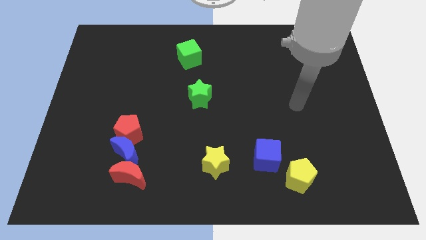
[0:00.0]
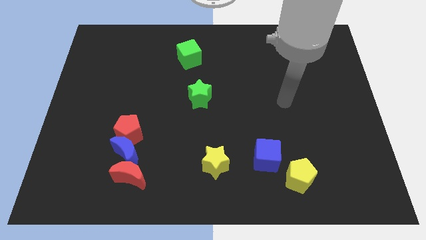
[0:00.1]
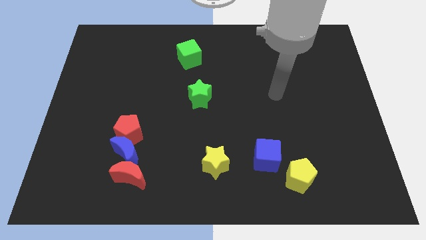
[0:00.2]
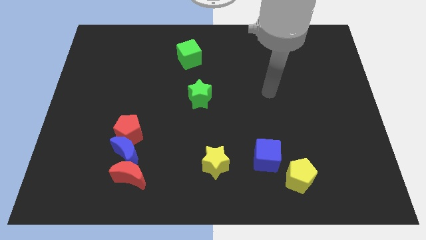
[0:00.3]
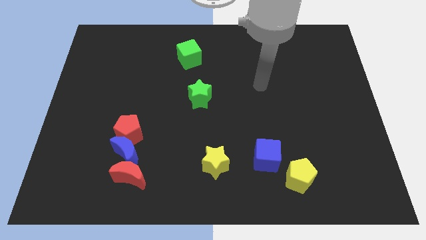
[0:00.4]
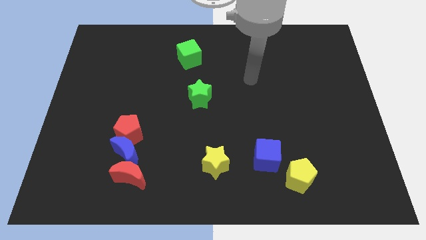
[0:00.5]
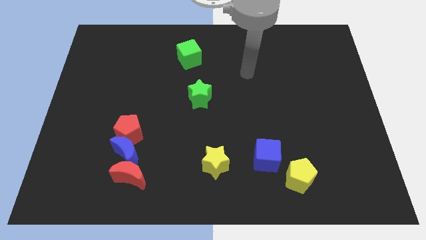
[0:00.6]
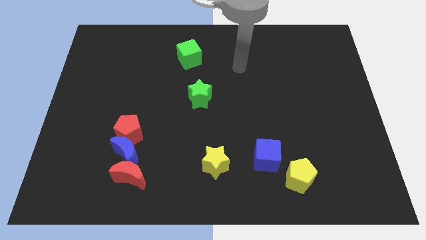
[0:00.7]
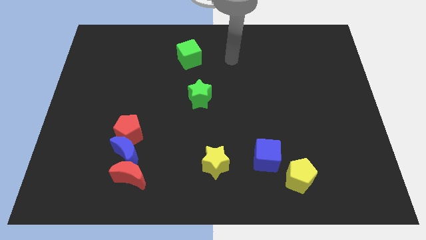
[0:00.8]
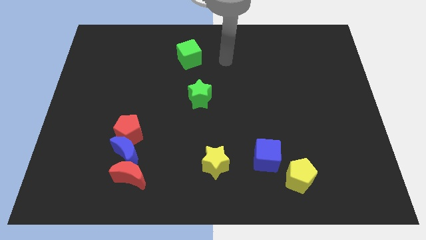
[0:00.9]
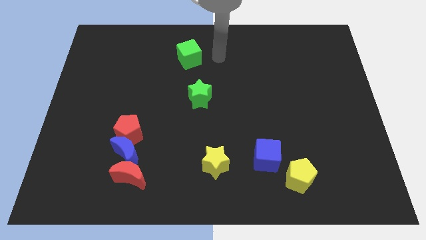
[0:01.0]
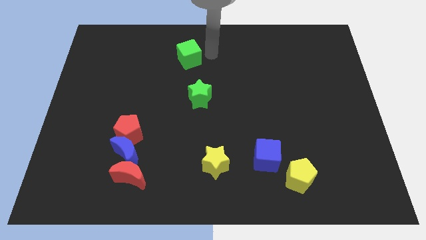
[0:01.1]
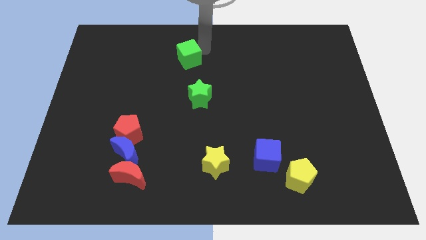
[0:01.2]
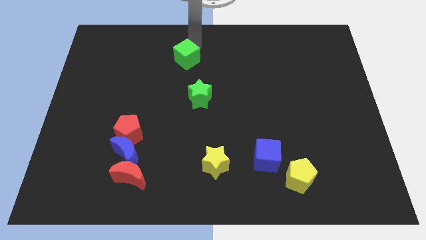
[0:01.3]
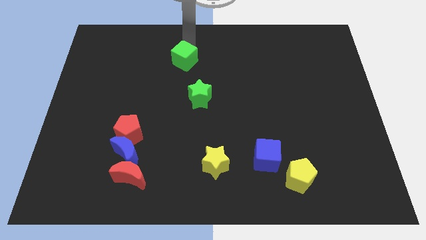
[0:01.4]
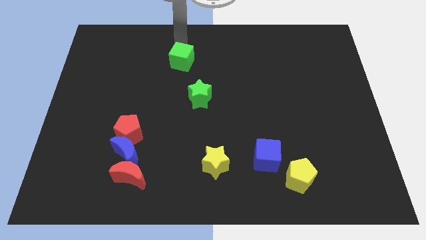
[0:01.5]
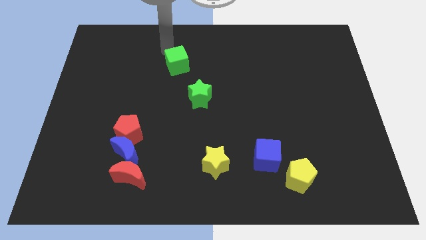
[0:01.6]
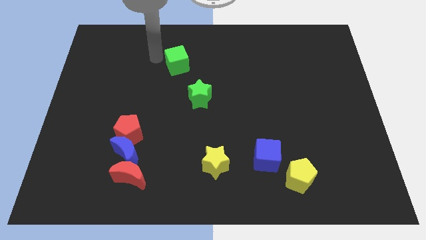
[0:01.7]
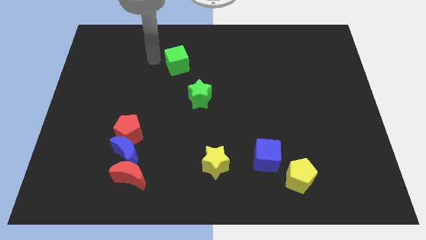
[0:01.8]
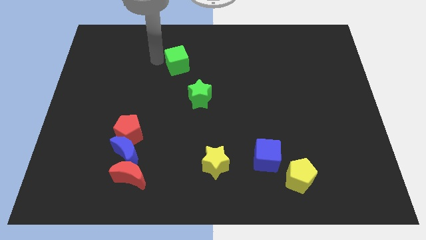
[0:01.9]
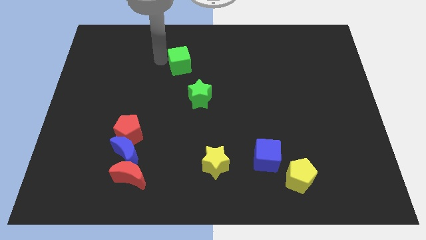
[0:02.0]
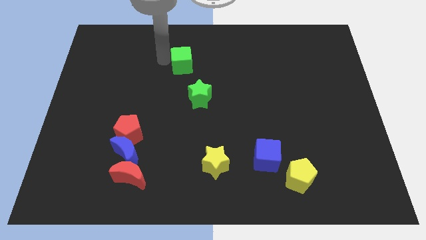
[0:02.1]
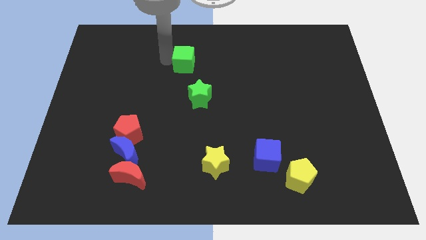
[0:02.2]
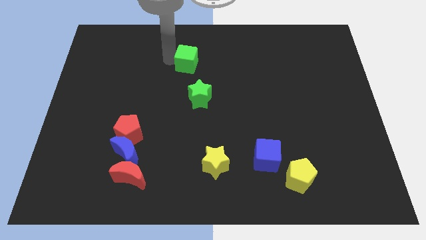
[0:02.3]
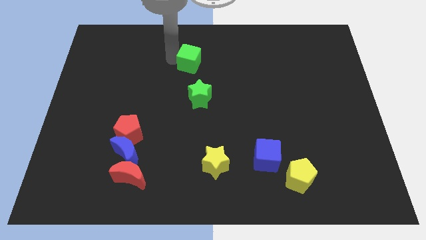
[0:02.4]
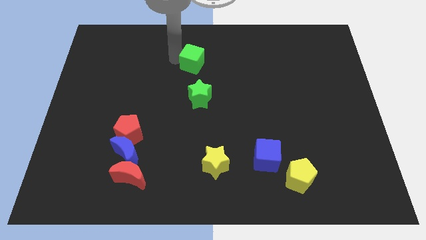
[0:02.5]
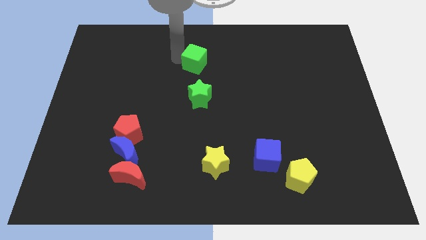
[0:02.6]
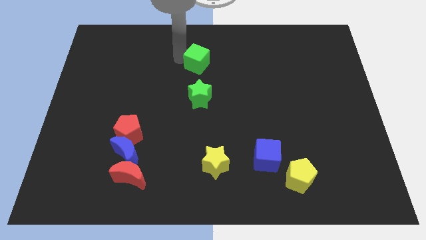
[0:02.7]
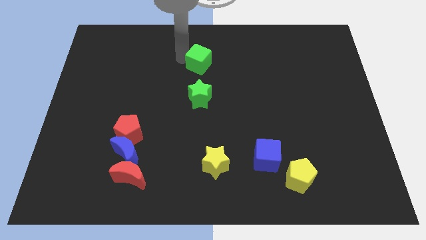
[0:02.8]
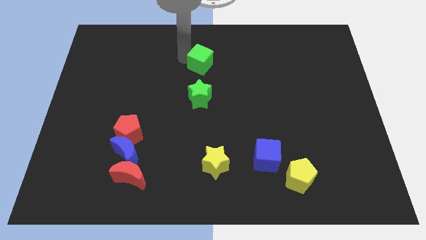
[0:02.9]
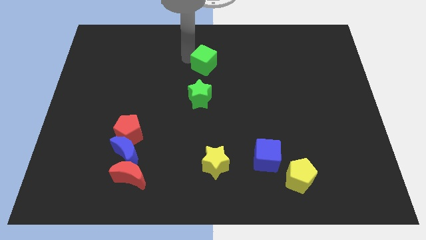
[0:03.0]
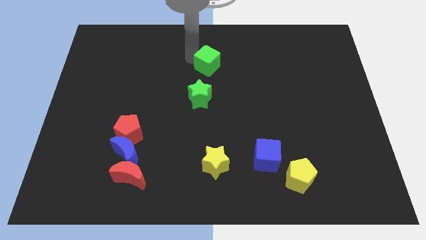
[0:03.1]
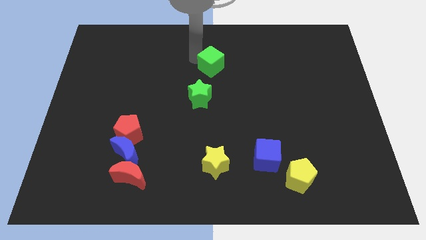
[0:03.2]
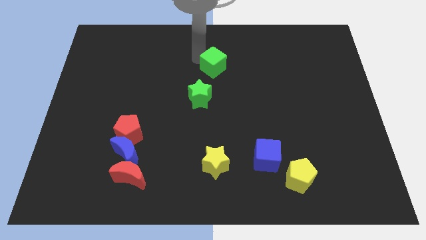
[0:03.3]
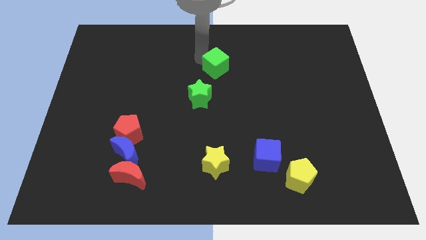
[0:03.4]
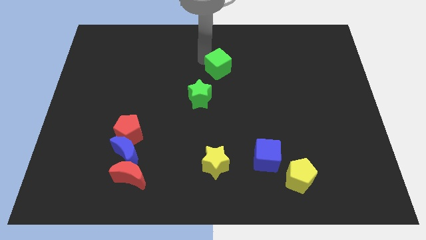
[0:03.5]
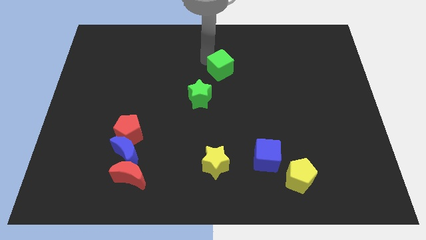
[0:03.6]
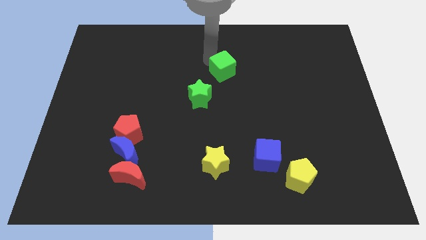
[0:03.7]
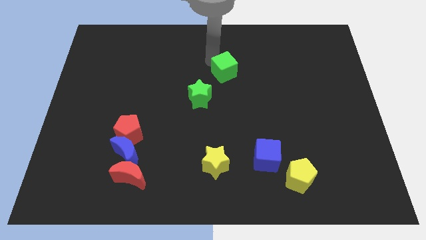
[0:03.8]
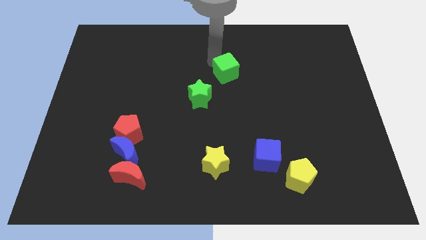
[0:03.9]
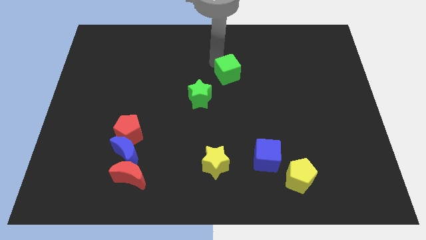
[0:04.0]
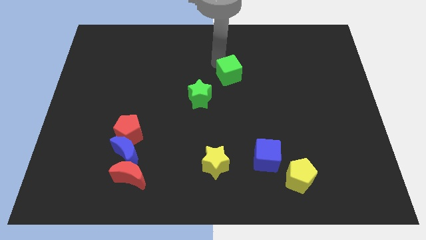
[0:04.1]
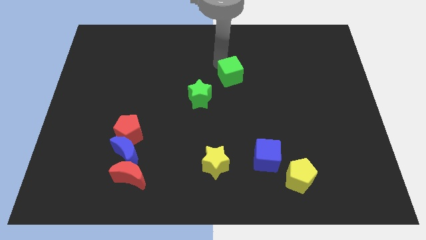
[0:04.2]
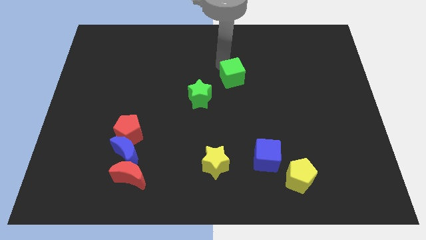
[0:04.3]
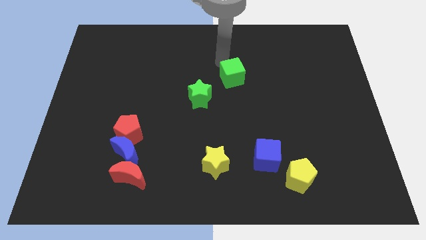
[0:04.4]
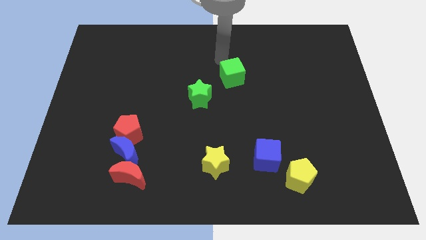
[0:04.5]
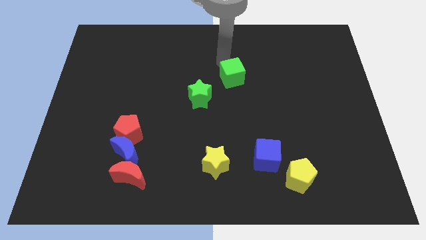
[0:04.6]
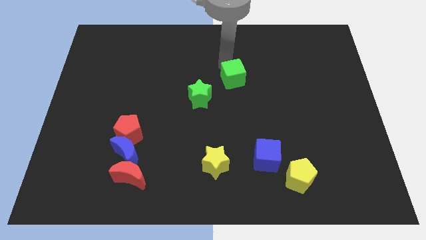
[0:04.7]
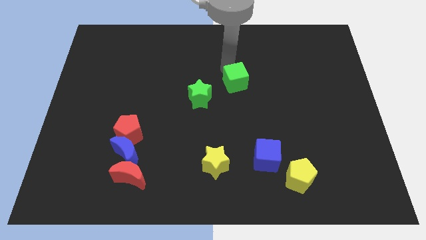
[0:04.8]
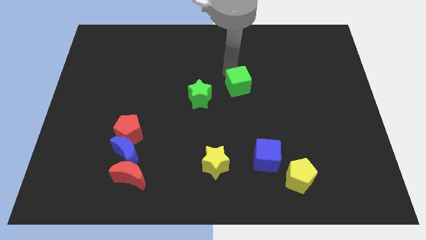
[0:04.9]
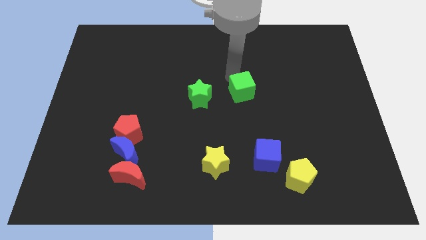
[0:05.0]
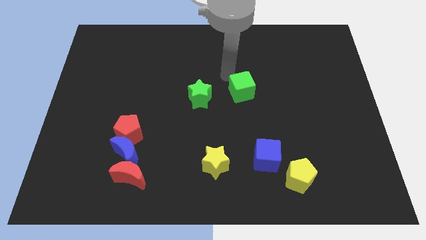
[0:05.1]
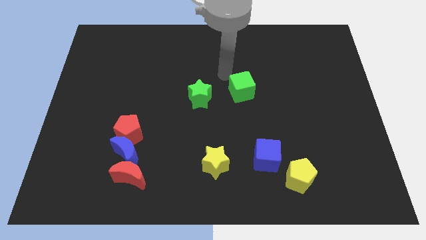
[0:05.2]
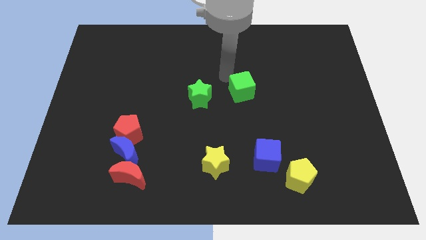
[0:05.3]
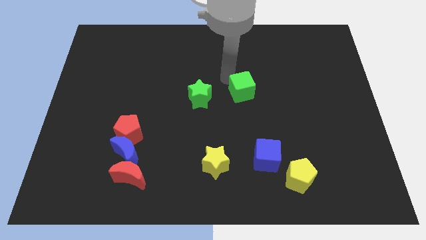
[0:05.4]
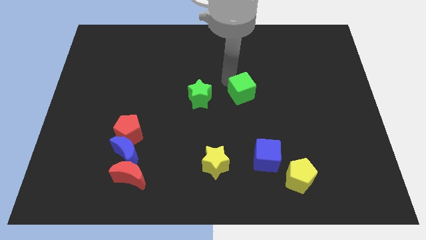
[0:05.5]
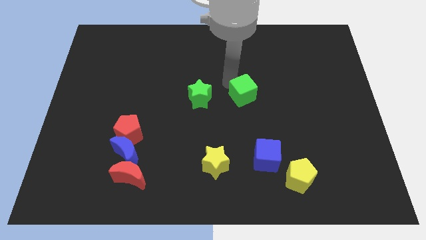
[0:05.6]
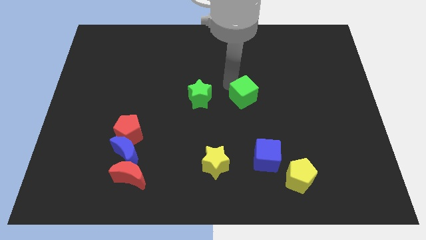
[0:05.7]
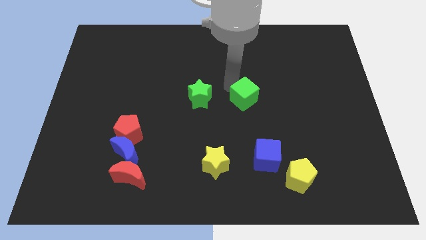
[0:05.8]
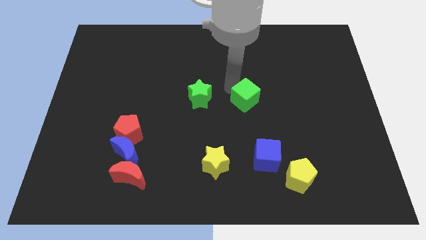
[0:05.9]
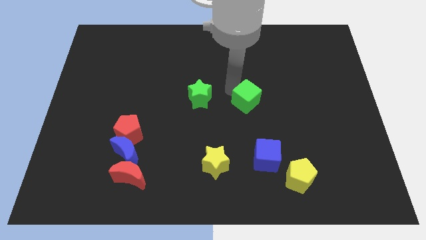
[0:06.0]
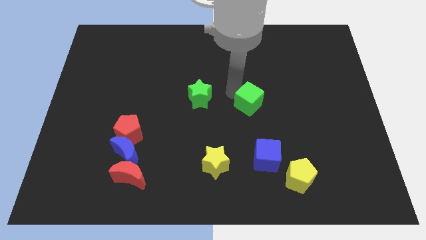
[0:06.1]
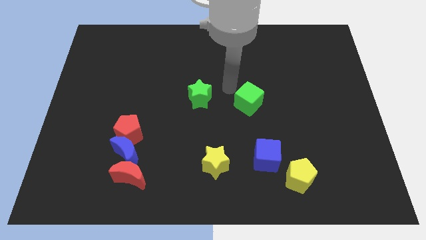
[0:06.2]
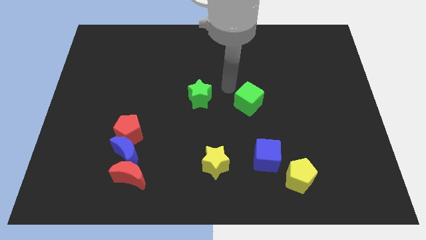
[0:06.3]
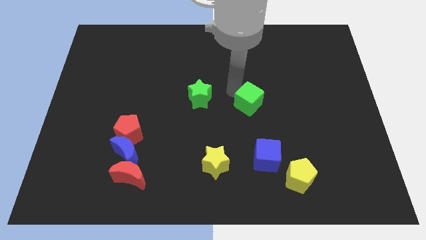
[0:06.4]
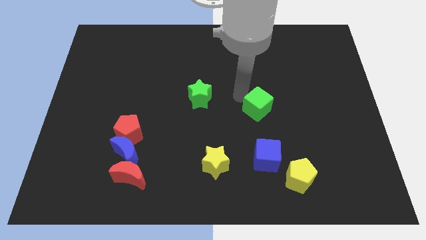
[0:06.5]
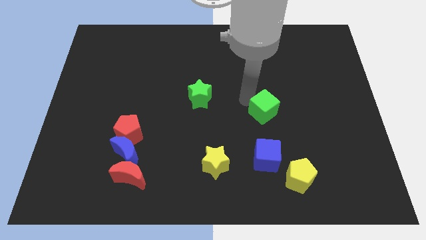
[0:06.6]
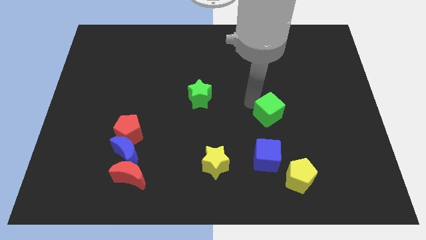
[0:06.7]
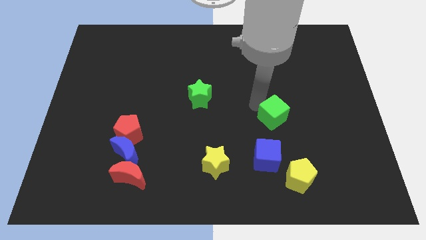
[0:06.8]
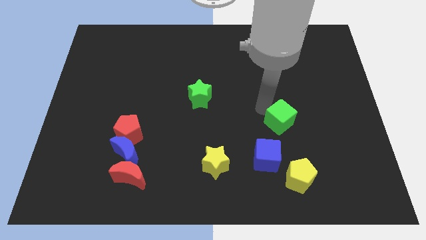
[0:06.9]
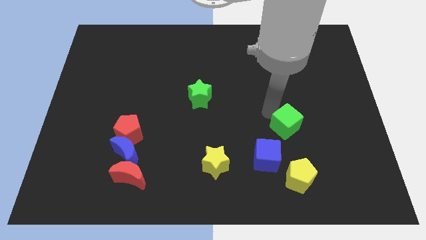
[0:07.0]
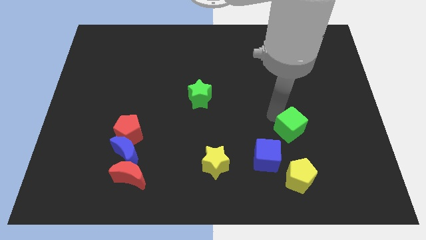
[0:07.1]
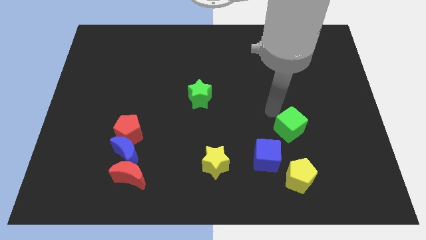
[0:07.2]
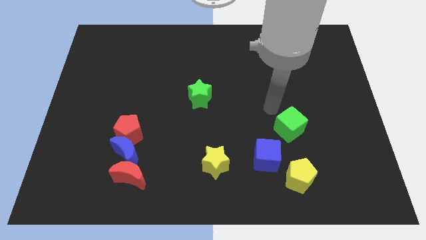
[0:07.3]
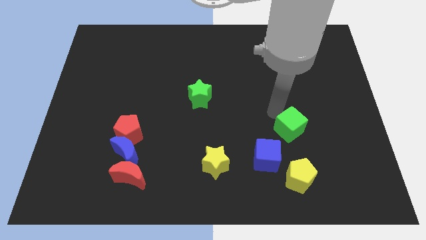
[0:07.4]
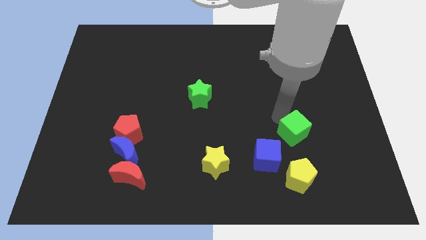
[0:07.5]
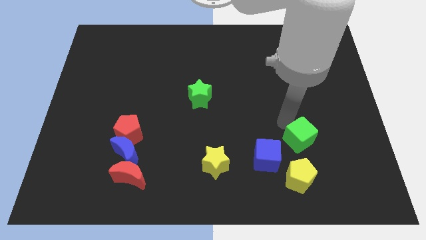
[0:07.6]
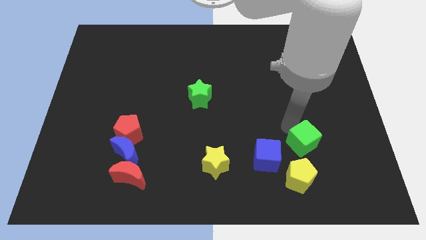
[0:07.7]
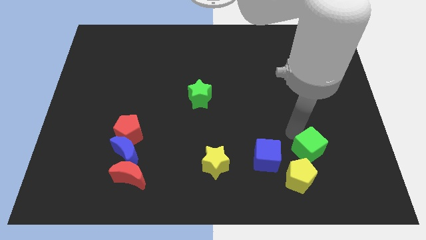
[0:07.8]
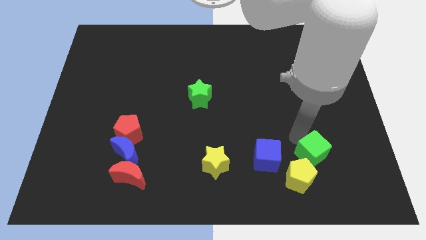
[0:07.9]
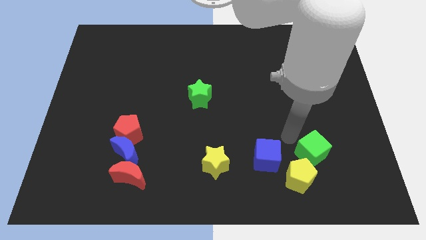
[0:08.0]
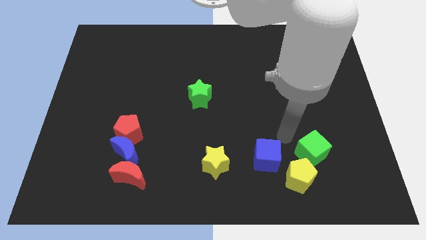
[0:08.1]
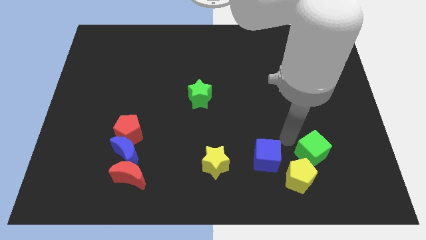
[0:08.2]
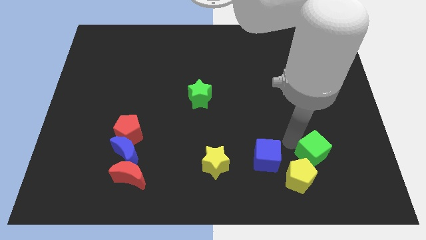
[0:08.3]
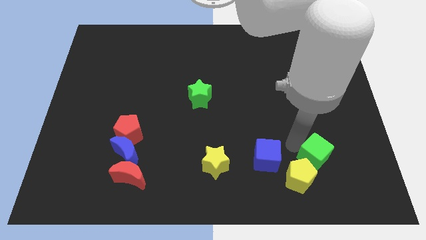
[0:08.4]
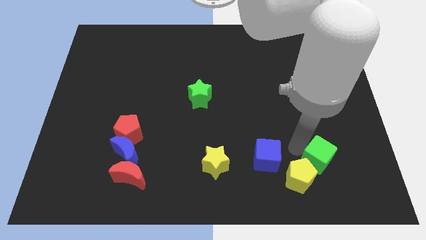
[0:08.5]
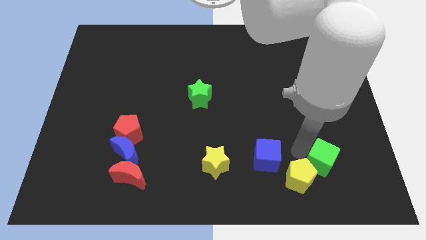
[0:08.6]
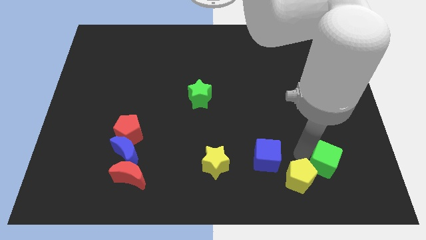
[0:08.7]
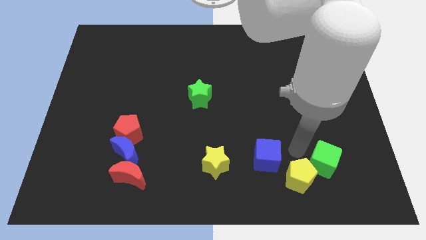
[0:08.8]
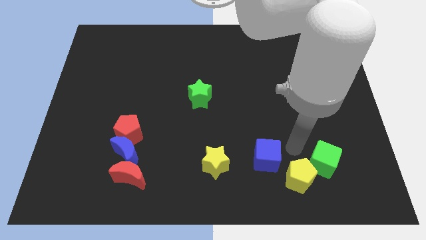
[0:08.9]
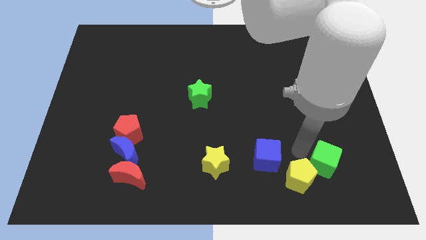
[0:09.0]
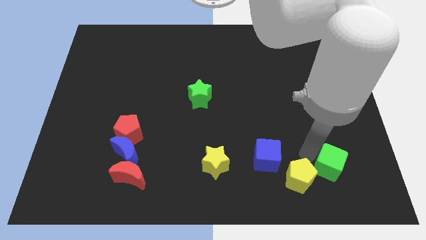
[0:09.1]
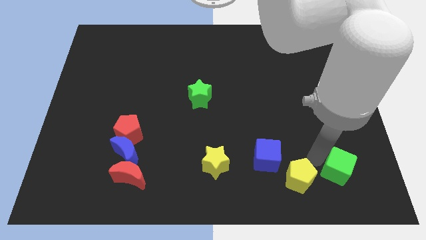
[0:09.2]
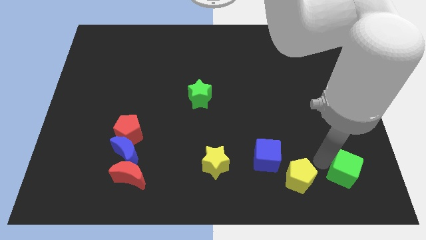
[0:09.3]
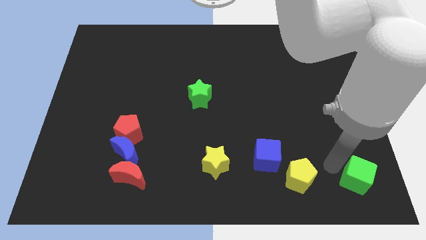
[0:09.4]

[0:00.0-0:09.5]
put the green cube to the bottom right corner
